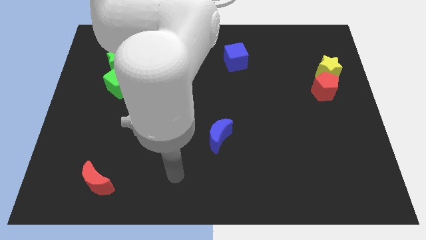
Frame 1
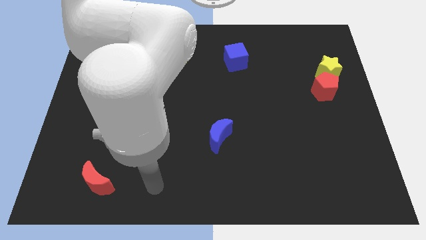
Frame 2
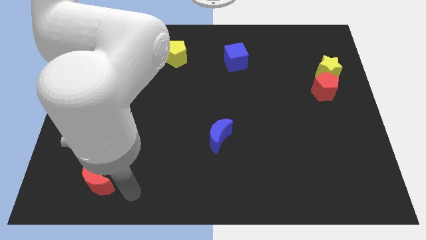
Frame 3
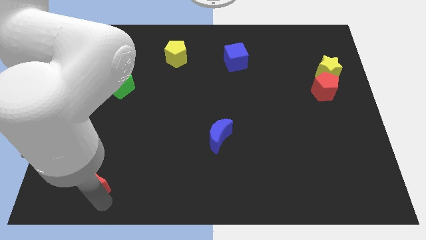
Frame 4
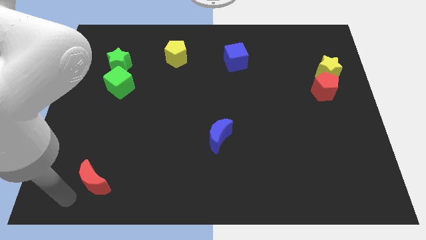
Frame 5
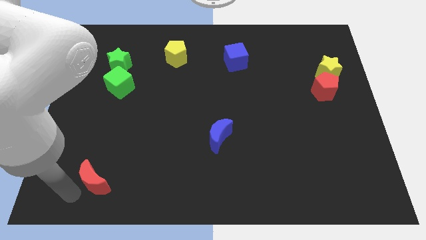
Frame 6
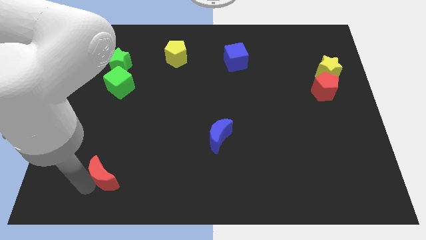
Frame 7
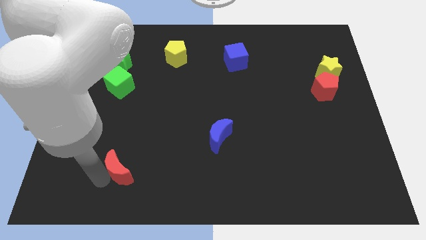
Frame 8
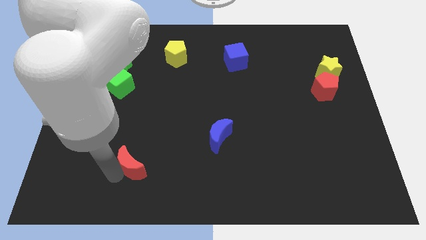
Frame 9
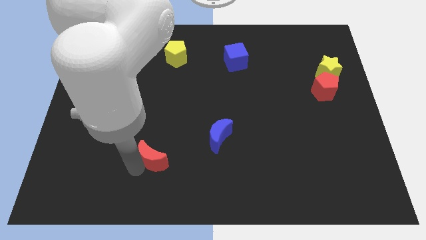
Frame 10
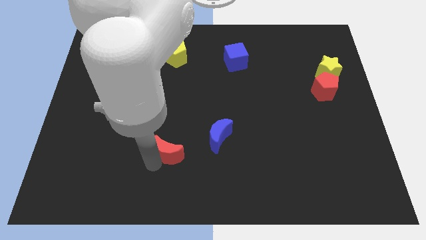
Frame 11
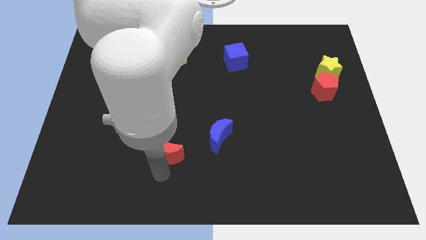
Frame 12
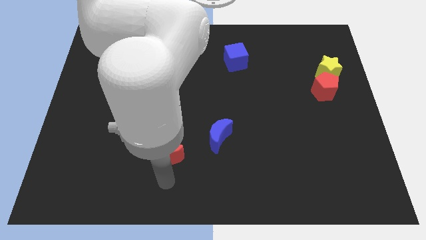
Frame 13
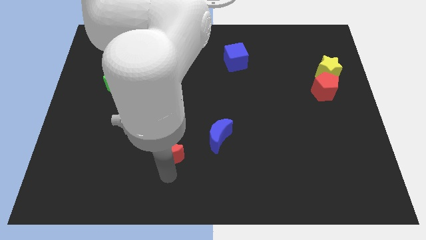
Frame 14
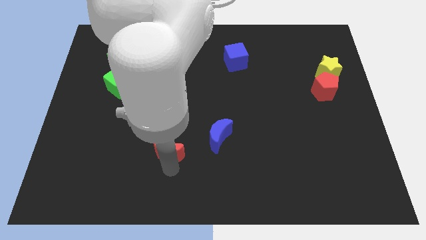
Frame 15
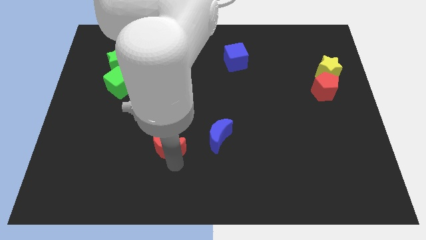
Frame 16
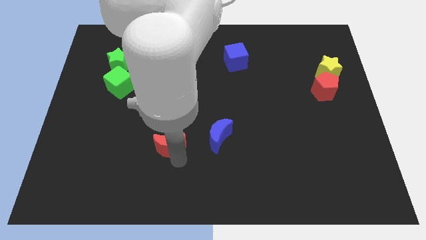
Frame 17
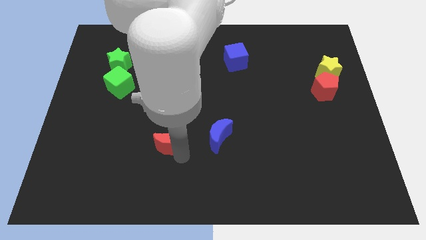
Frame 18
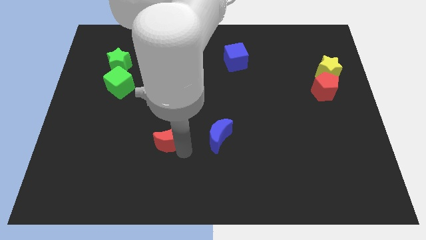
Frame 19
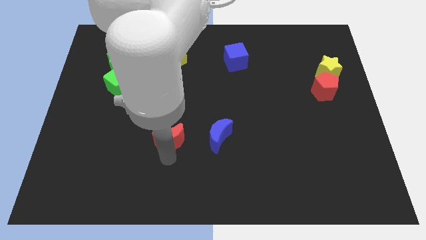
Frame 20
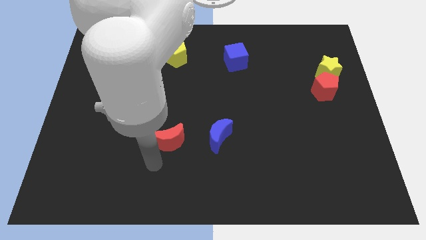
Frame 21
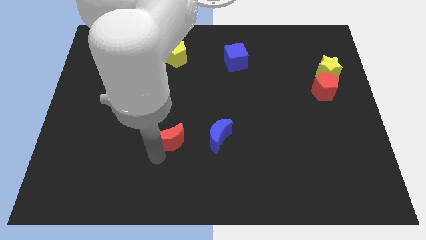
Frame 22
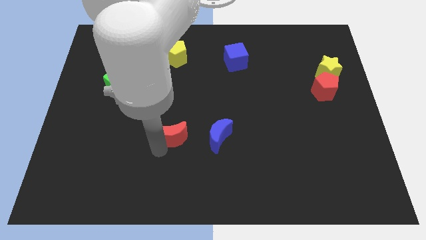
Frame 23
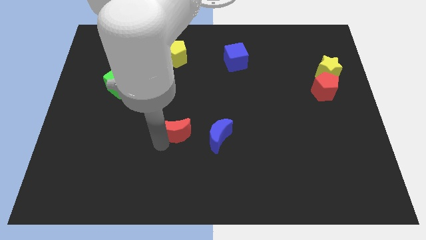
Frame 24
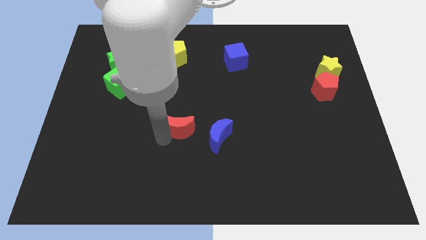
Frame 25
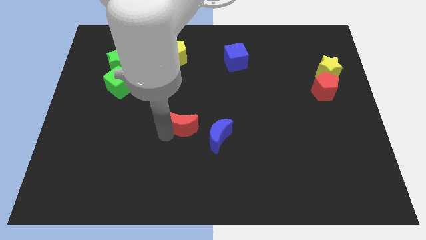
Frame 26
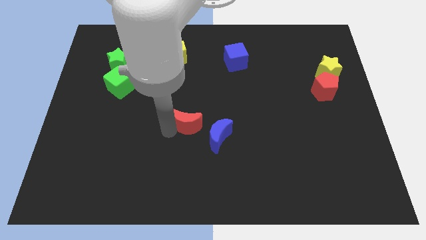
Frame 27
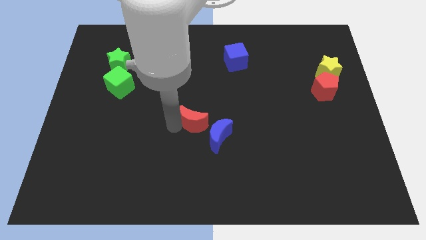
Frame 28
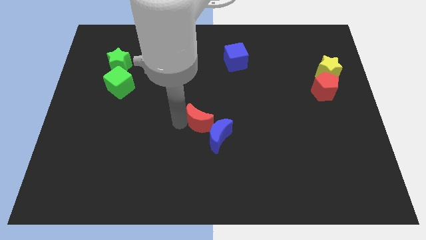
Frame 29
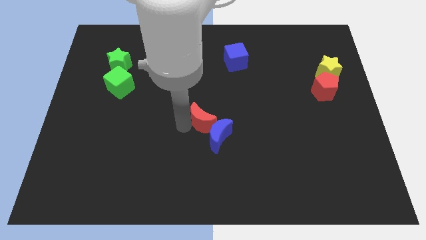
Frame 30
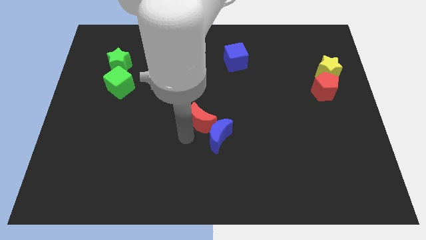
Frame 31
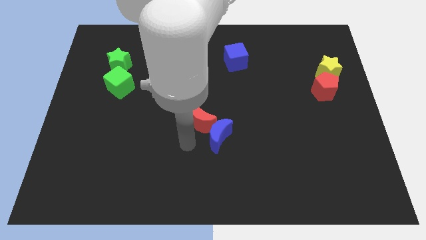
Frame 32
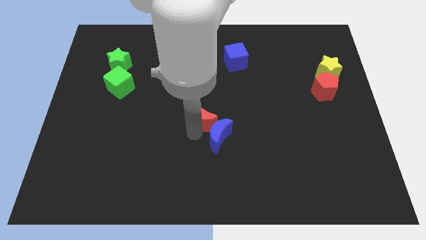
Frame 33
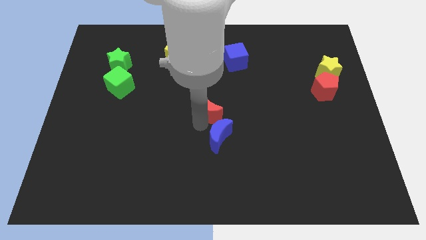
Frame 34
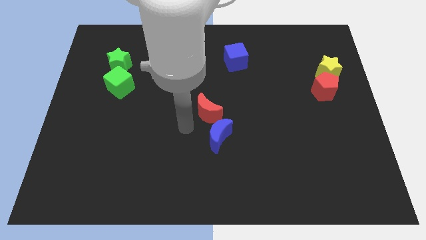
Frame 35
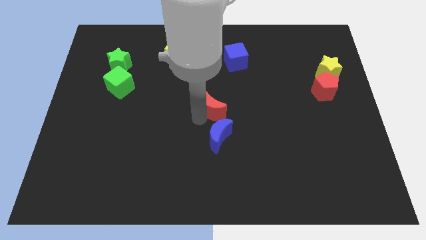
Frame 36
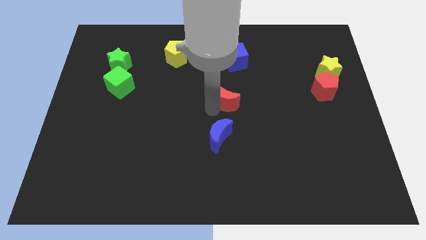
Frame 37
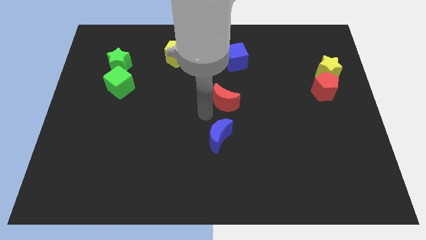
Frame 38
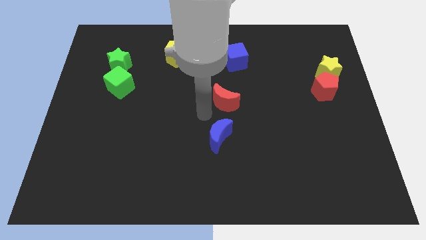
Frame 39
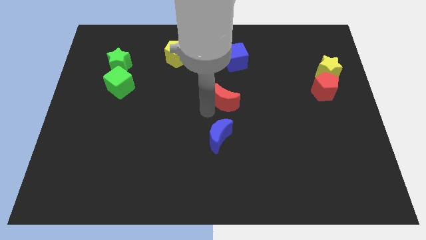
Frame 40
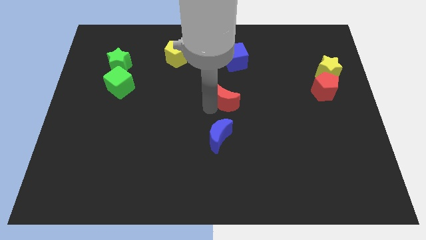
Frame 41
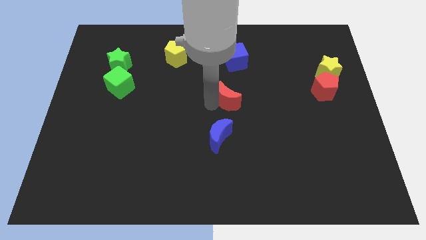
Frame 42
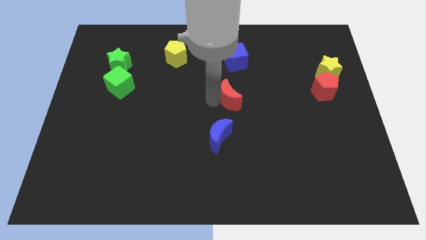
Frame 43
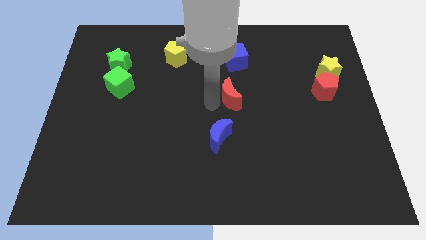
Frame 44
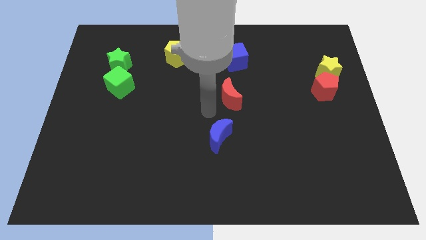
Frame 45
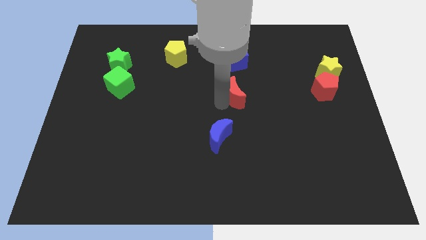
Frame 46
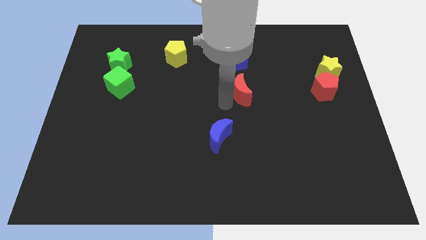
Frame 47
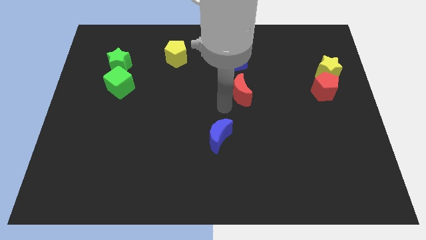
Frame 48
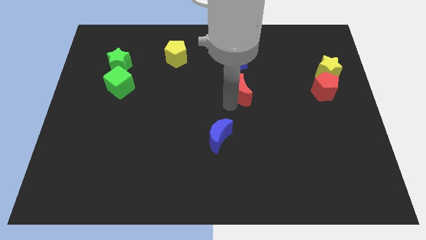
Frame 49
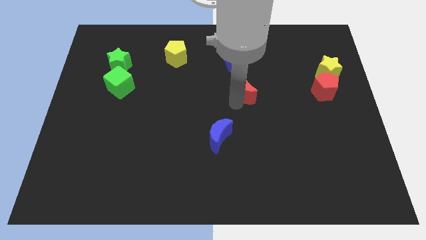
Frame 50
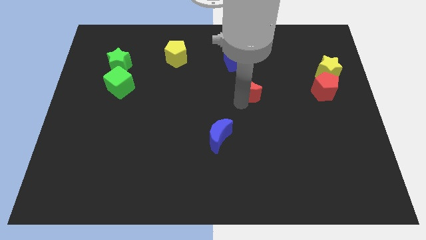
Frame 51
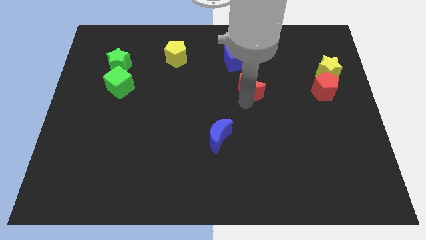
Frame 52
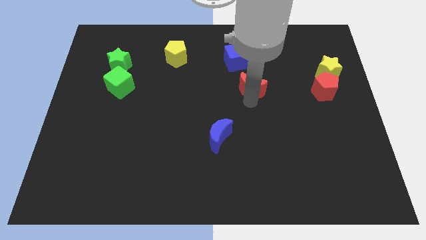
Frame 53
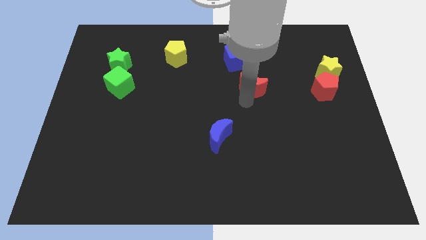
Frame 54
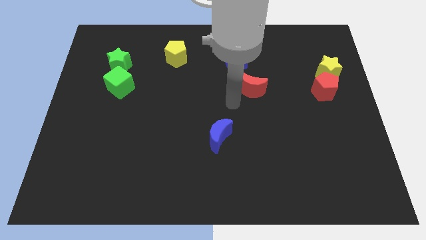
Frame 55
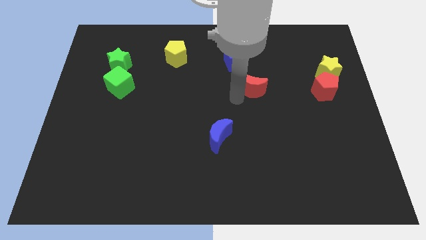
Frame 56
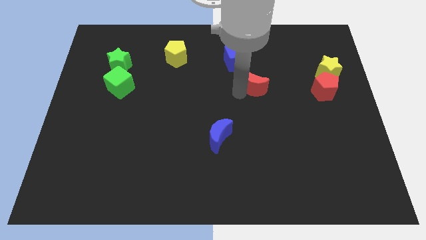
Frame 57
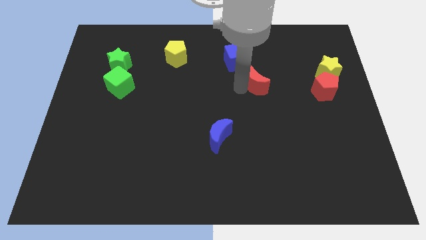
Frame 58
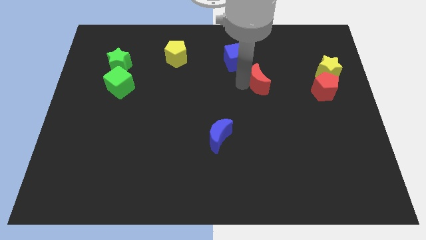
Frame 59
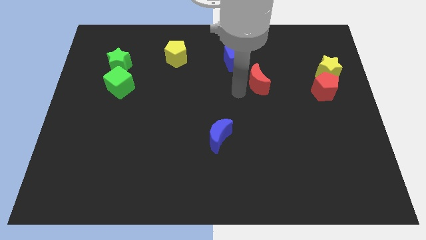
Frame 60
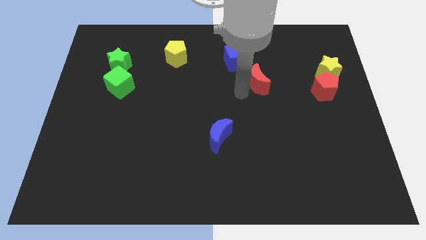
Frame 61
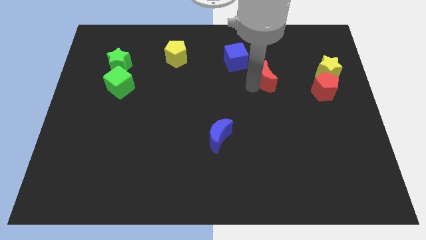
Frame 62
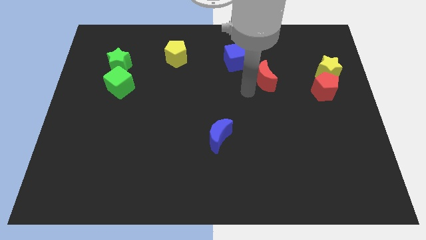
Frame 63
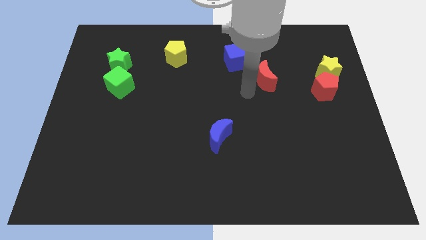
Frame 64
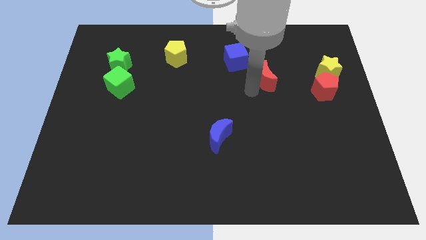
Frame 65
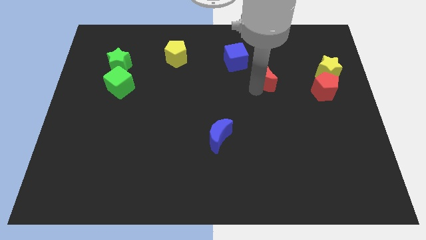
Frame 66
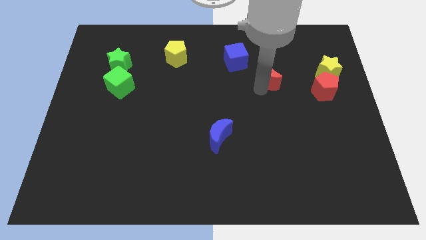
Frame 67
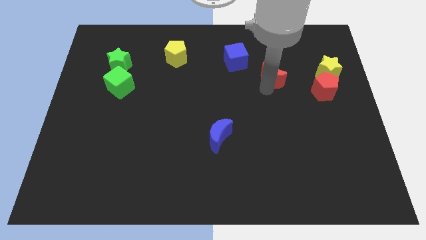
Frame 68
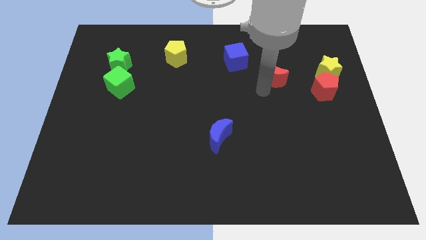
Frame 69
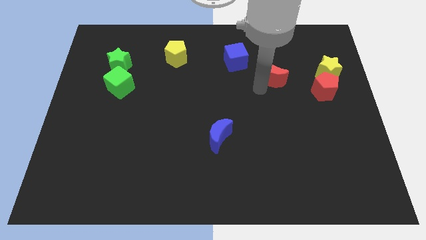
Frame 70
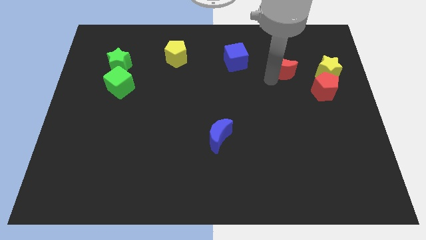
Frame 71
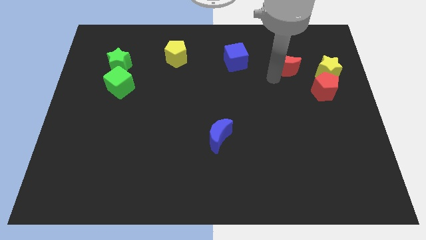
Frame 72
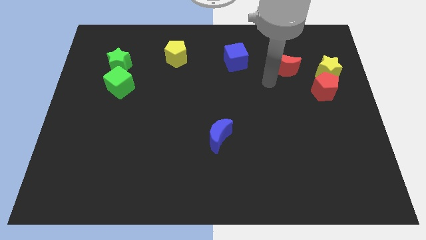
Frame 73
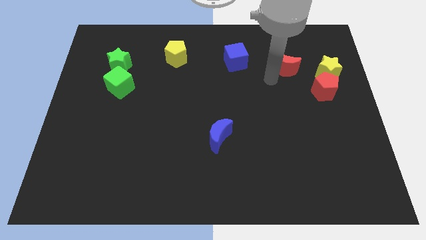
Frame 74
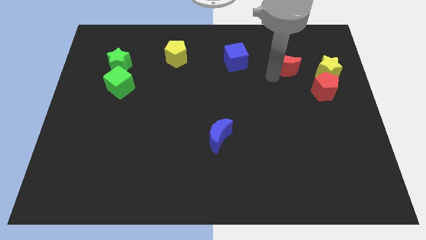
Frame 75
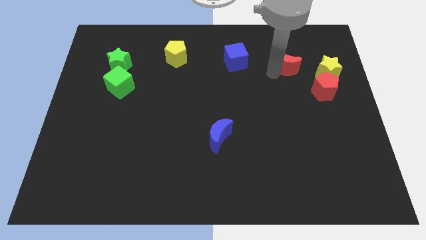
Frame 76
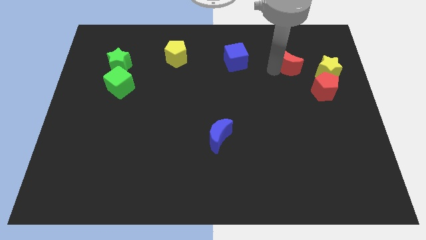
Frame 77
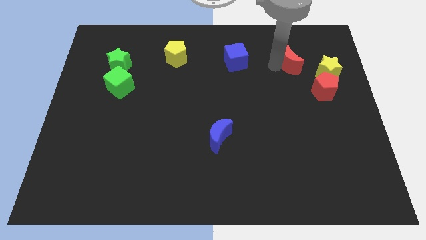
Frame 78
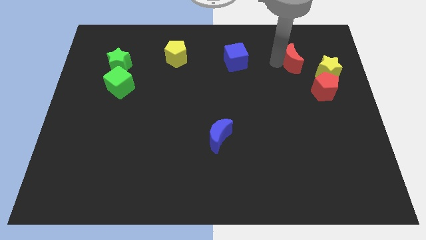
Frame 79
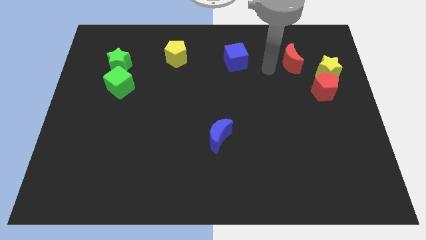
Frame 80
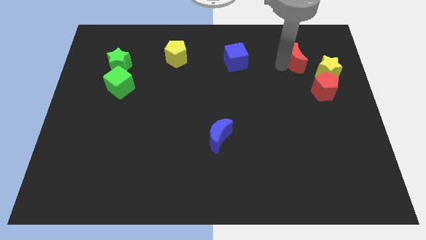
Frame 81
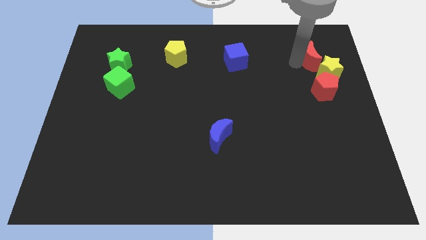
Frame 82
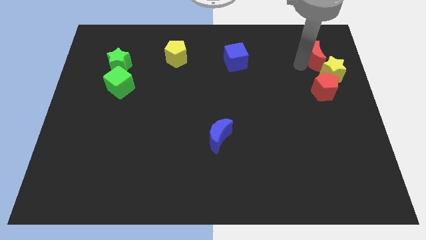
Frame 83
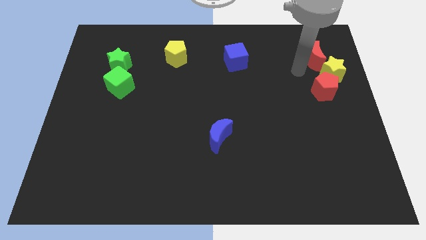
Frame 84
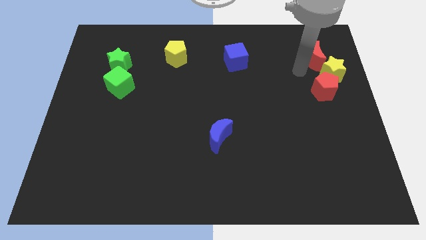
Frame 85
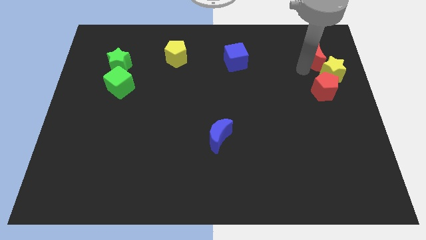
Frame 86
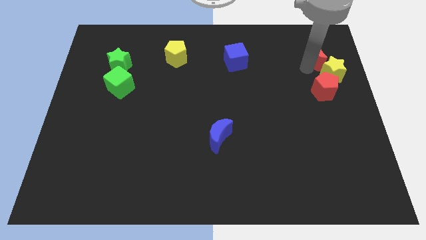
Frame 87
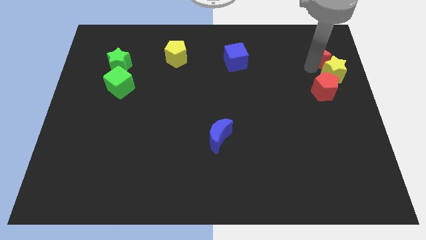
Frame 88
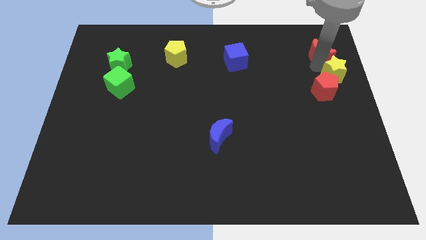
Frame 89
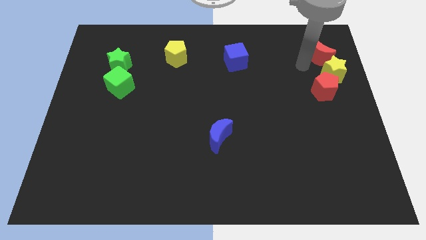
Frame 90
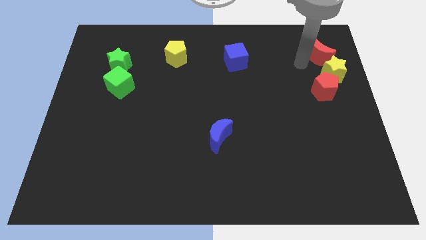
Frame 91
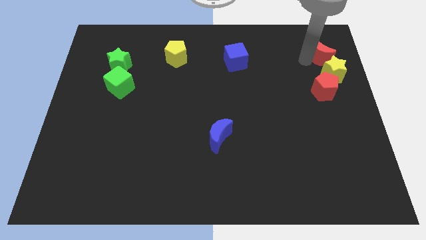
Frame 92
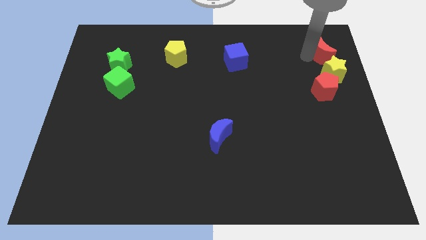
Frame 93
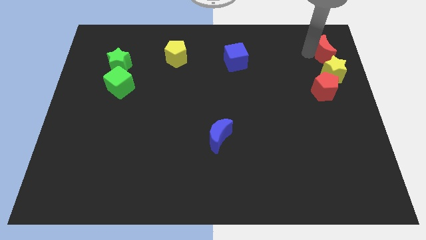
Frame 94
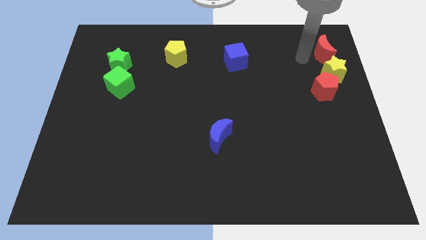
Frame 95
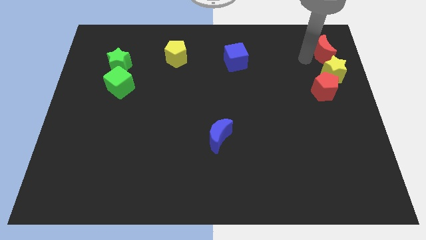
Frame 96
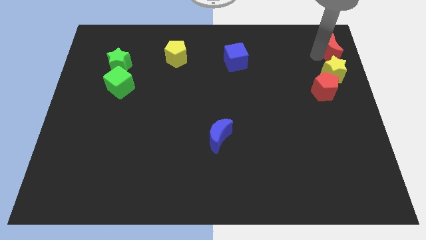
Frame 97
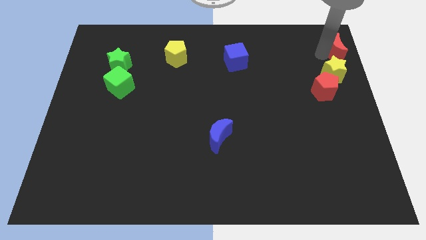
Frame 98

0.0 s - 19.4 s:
slide the red moon to the top right
